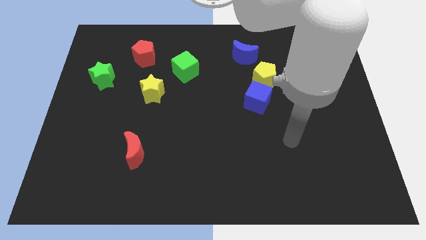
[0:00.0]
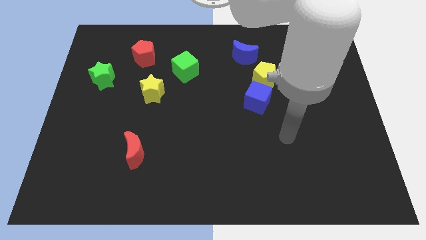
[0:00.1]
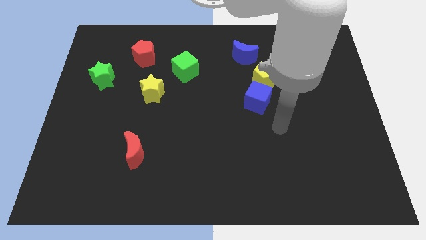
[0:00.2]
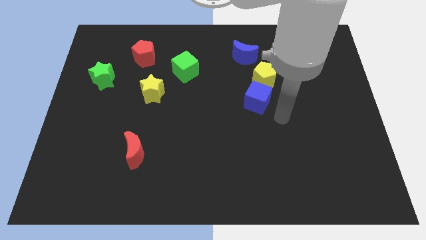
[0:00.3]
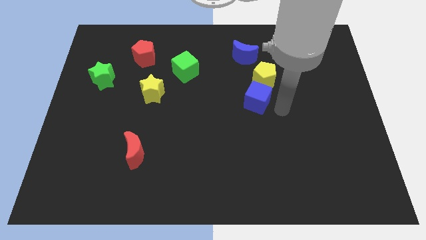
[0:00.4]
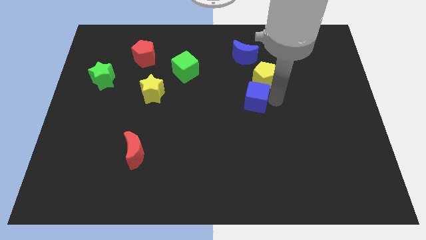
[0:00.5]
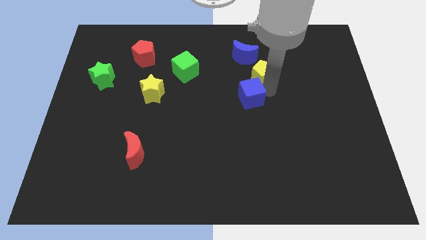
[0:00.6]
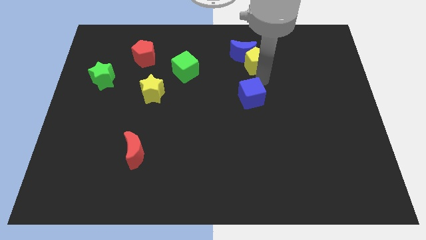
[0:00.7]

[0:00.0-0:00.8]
move the blue cube away from the yellow pentagon

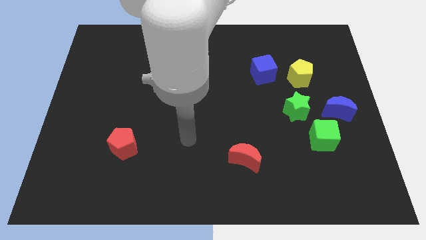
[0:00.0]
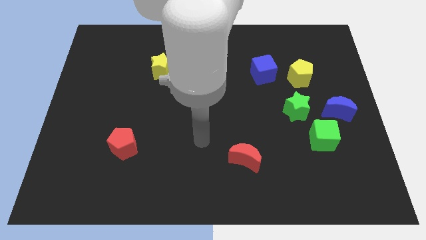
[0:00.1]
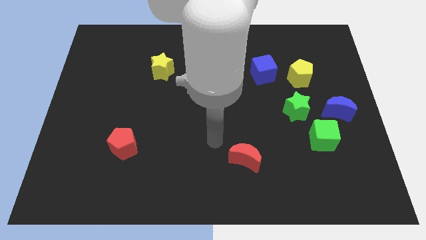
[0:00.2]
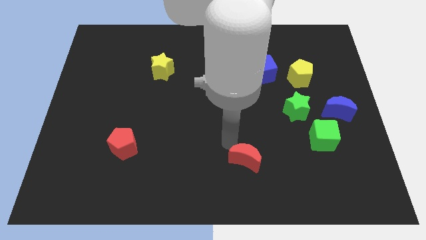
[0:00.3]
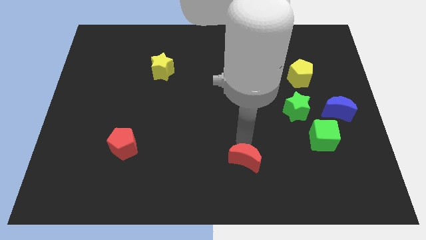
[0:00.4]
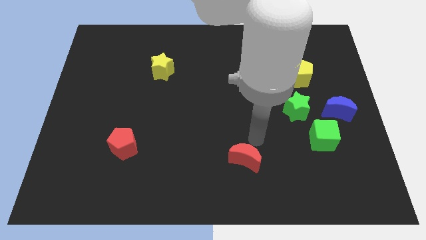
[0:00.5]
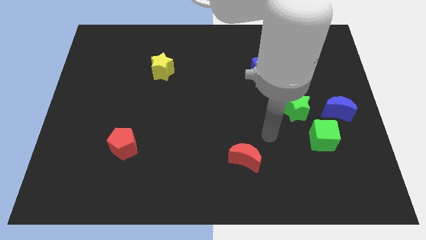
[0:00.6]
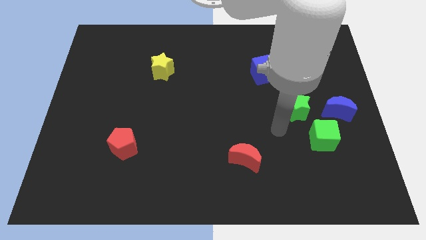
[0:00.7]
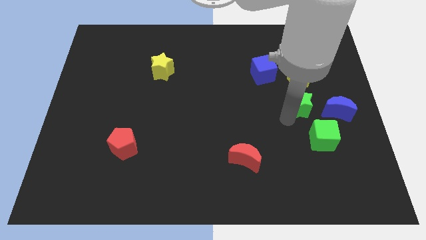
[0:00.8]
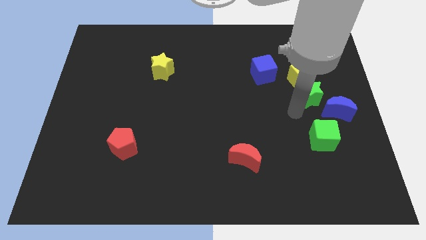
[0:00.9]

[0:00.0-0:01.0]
pull the green cube apart from the blue moon and green star

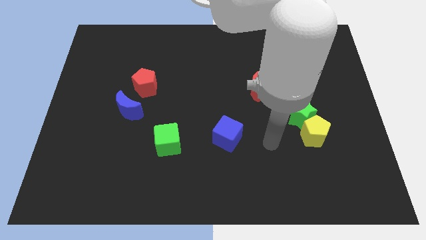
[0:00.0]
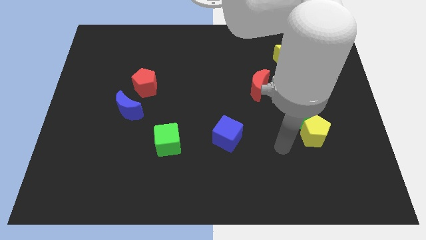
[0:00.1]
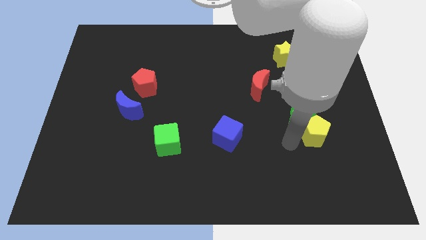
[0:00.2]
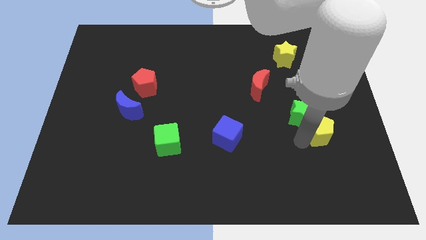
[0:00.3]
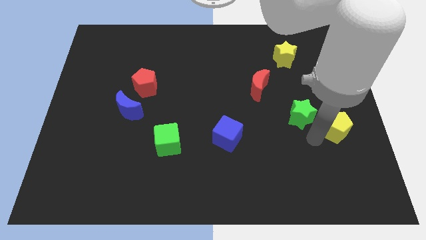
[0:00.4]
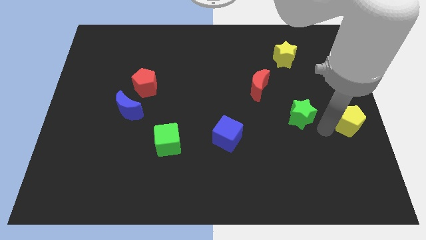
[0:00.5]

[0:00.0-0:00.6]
move the green star away from the yellow pentagon

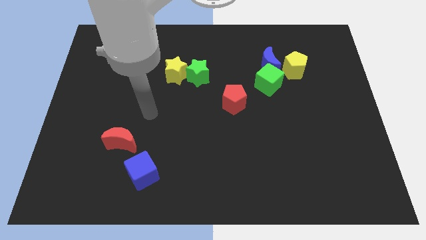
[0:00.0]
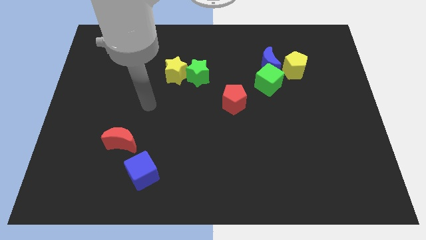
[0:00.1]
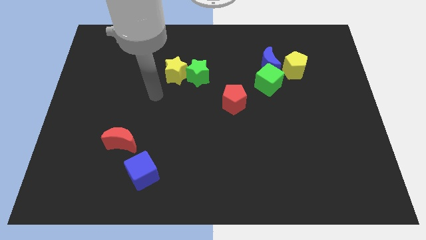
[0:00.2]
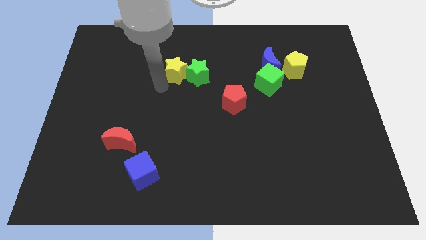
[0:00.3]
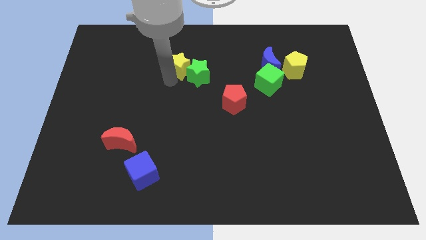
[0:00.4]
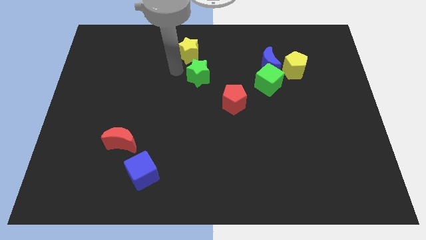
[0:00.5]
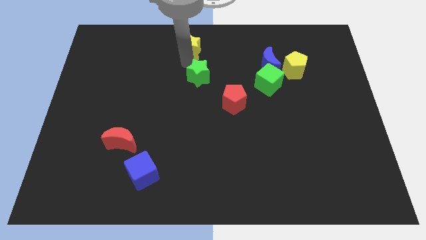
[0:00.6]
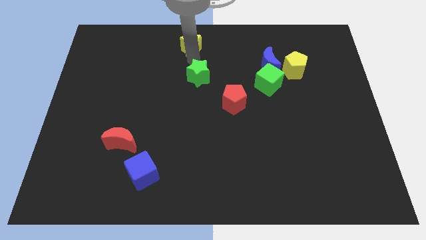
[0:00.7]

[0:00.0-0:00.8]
move the green star away from the yellow star

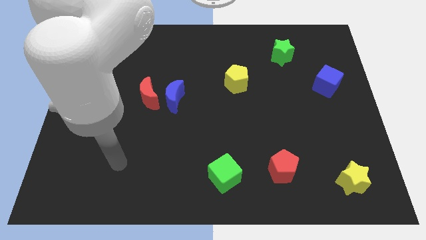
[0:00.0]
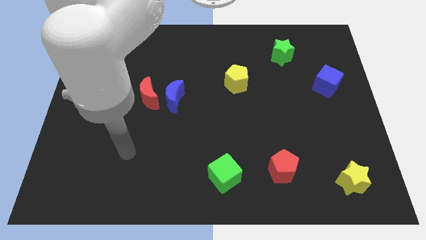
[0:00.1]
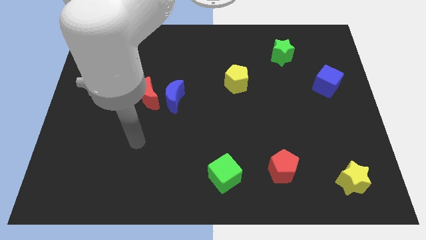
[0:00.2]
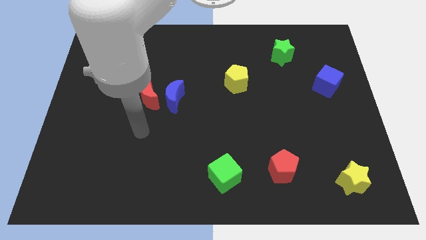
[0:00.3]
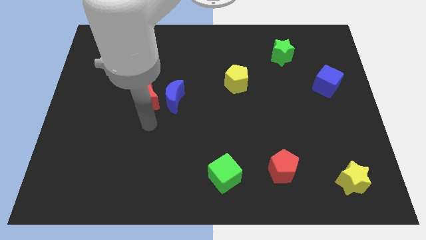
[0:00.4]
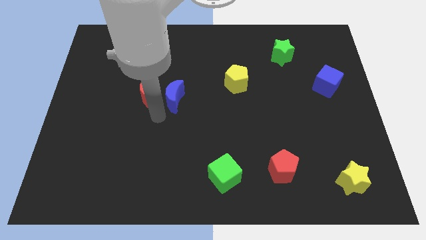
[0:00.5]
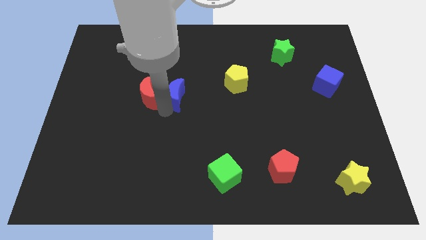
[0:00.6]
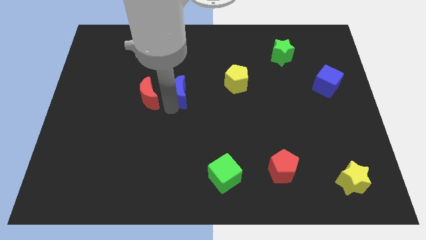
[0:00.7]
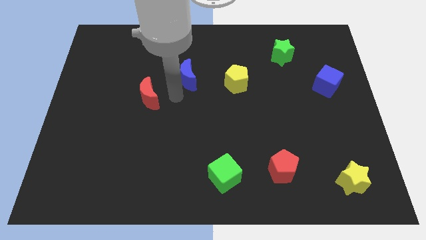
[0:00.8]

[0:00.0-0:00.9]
pull the red moon apart from the blue moon

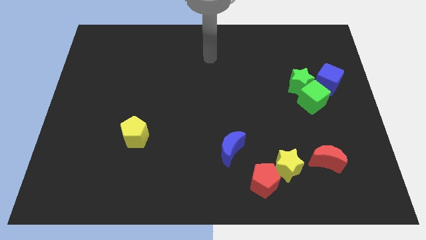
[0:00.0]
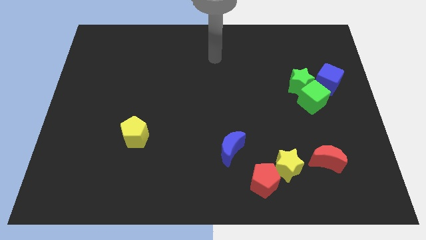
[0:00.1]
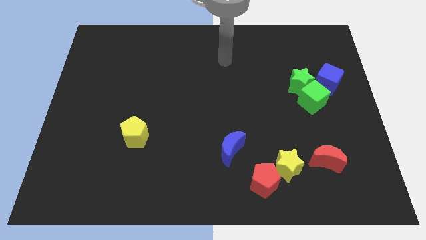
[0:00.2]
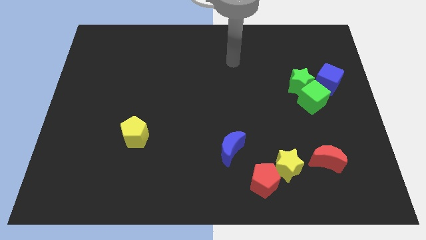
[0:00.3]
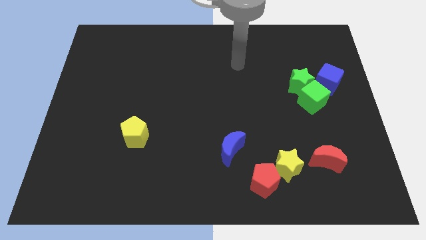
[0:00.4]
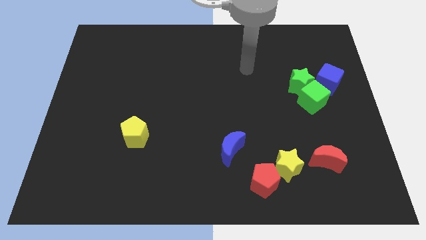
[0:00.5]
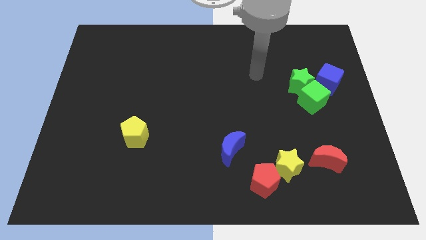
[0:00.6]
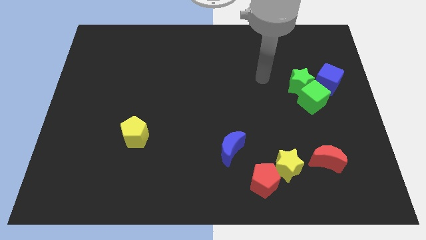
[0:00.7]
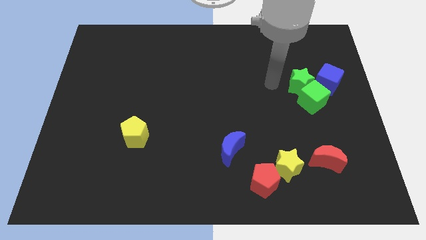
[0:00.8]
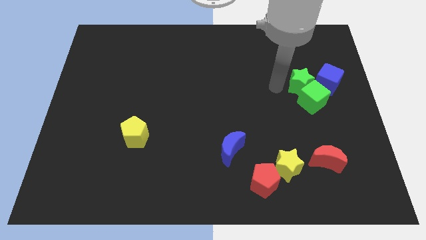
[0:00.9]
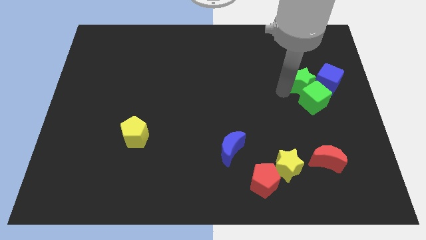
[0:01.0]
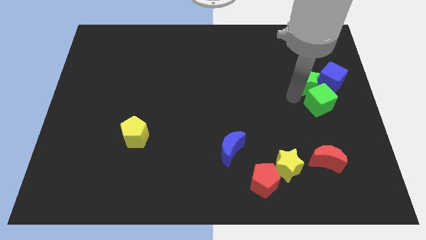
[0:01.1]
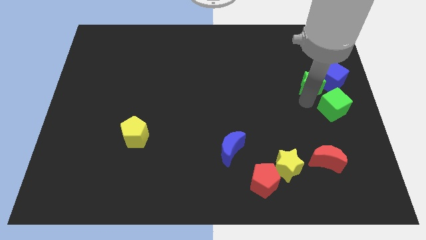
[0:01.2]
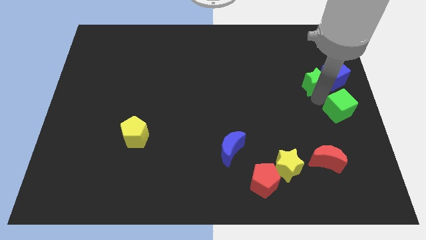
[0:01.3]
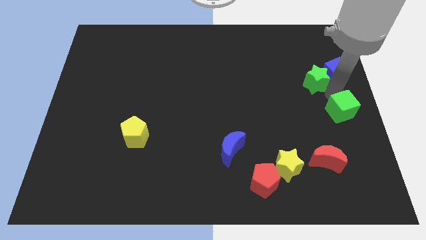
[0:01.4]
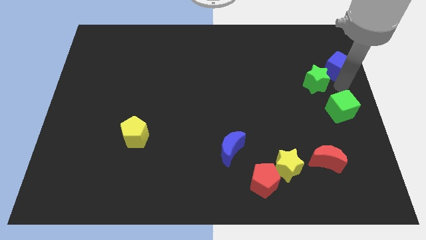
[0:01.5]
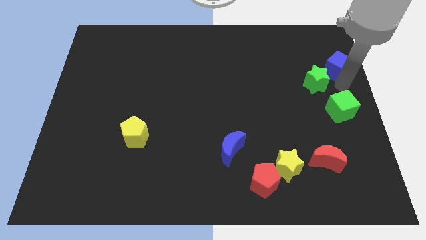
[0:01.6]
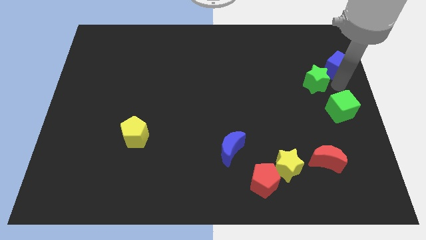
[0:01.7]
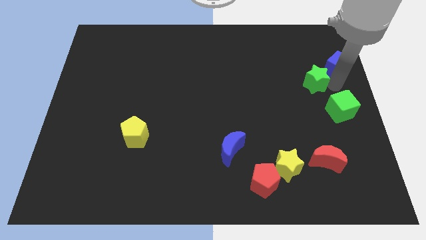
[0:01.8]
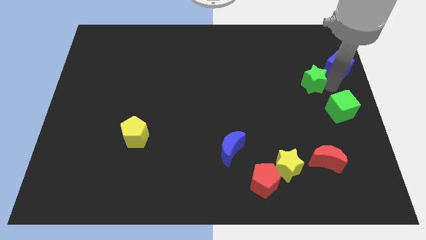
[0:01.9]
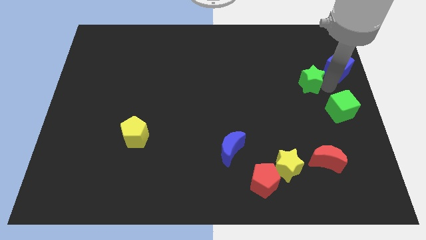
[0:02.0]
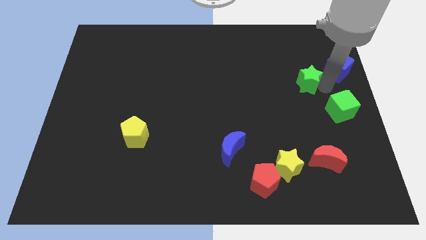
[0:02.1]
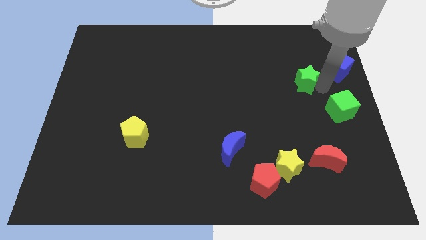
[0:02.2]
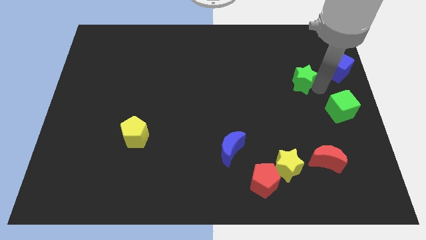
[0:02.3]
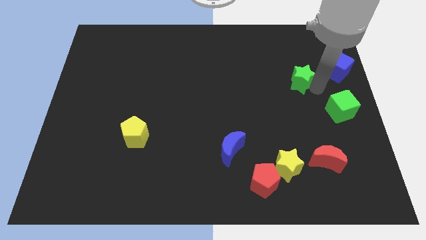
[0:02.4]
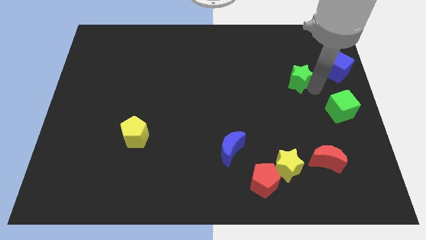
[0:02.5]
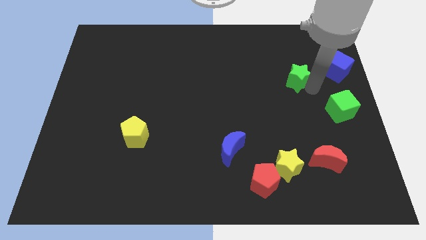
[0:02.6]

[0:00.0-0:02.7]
pull the green star apart from the green cube and blue cube

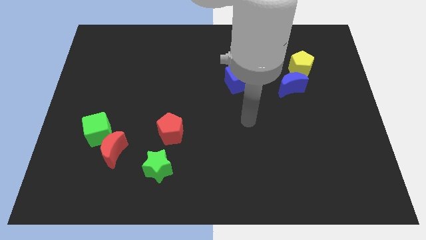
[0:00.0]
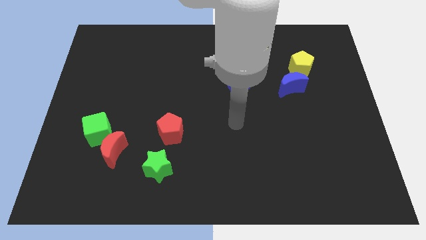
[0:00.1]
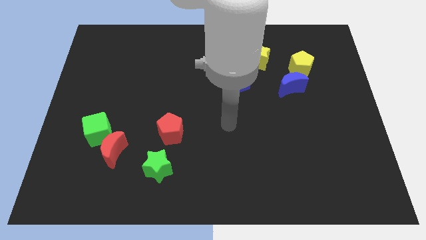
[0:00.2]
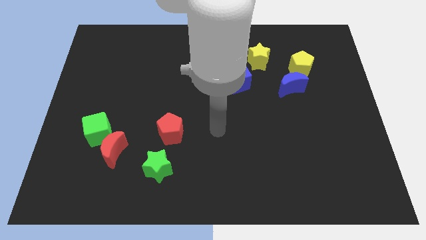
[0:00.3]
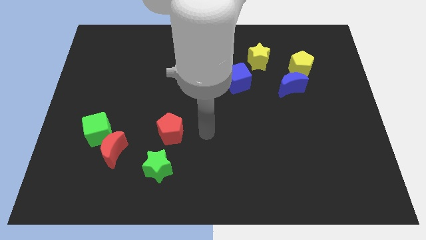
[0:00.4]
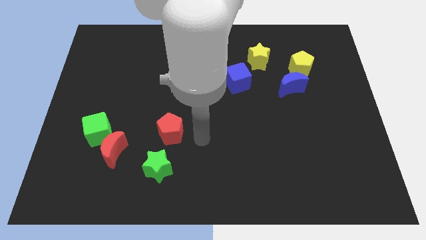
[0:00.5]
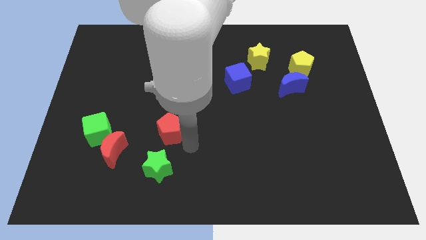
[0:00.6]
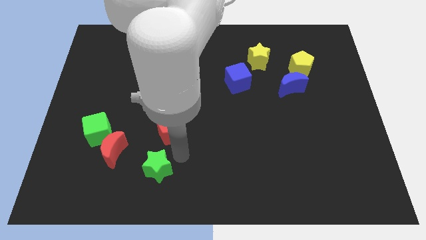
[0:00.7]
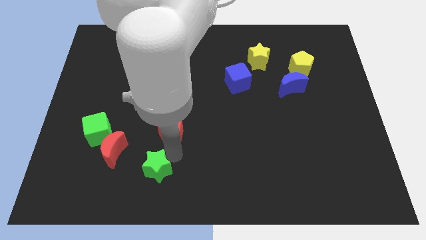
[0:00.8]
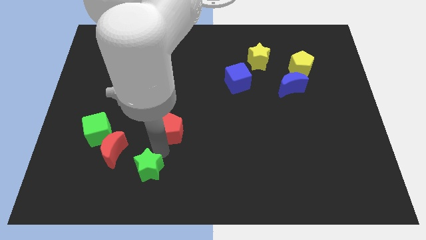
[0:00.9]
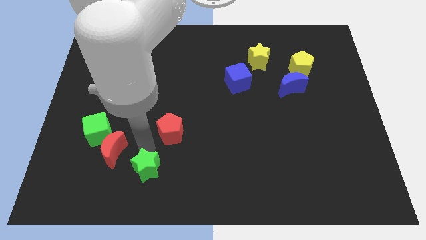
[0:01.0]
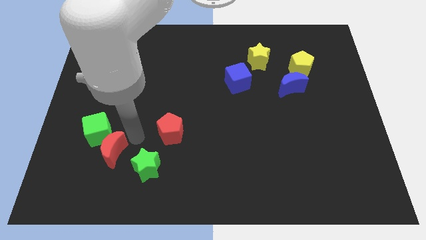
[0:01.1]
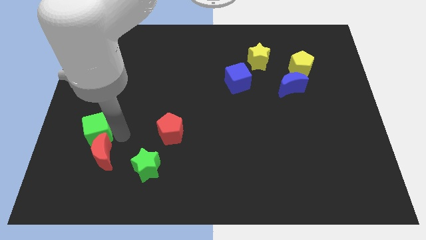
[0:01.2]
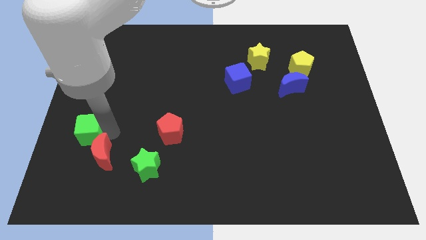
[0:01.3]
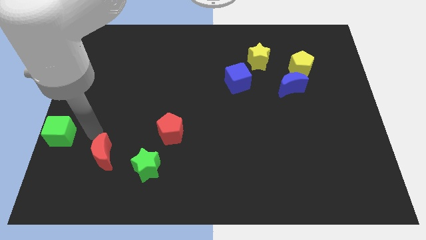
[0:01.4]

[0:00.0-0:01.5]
pull the red moon apart from the green cube

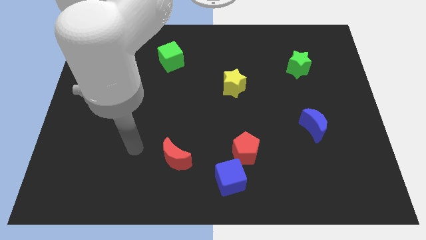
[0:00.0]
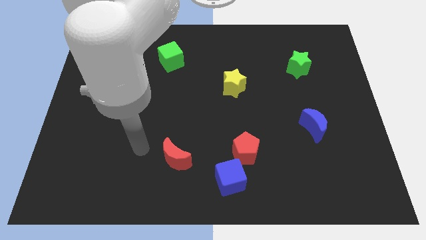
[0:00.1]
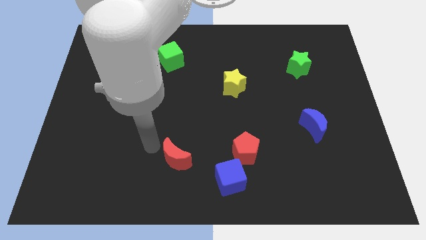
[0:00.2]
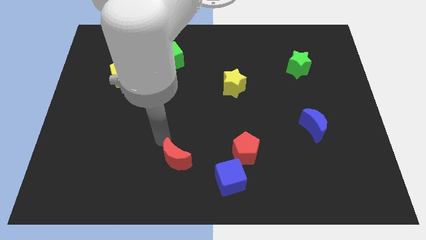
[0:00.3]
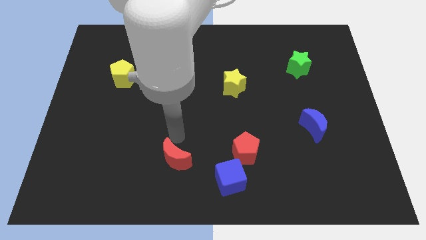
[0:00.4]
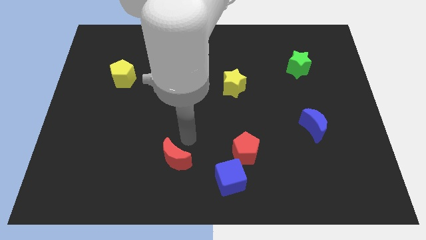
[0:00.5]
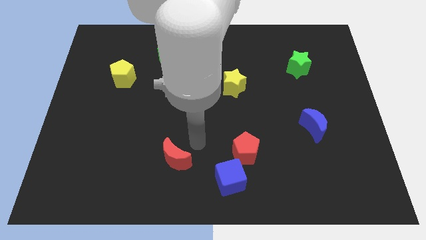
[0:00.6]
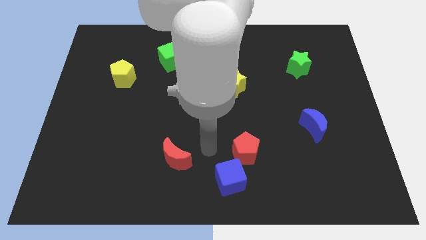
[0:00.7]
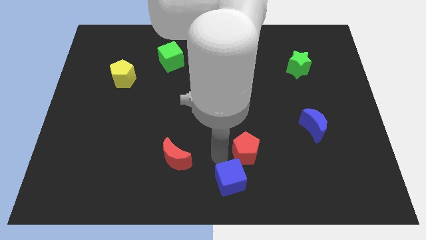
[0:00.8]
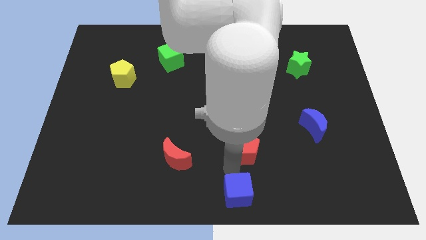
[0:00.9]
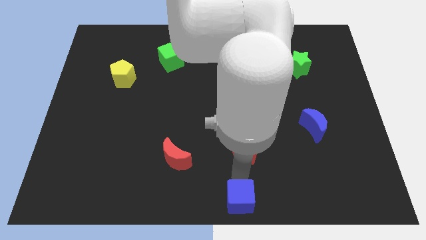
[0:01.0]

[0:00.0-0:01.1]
separate the red pentagon from the blue cube
